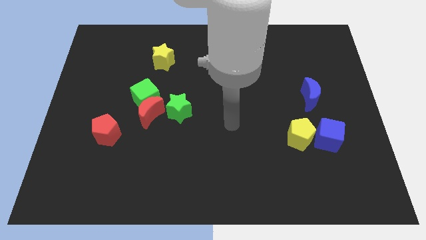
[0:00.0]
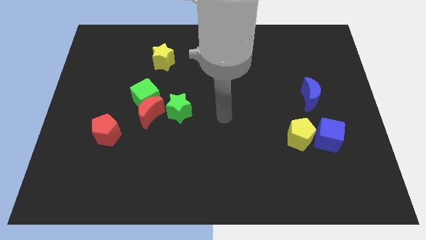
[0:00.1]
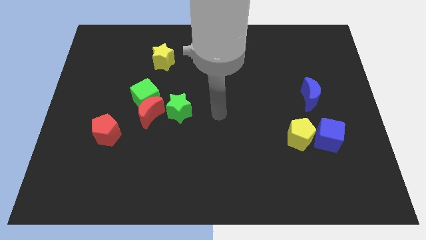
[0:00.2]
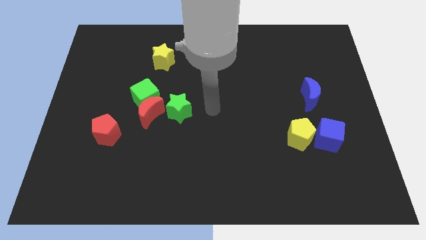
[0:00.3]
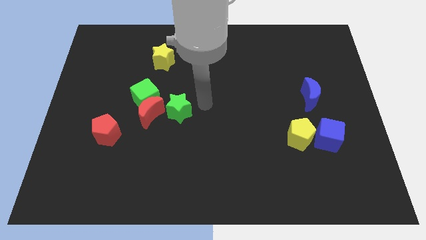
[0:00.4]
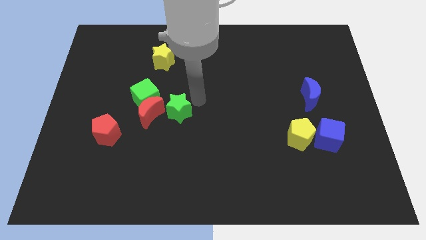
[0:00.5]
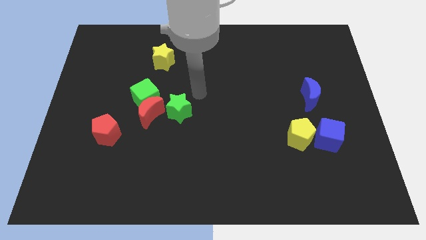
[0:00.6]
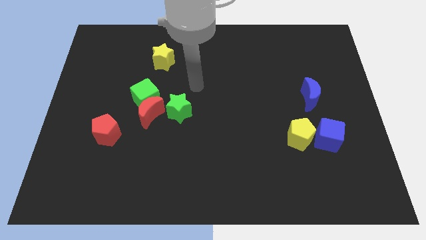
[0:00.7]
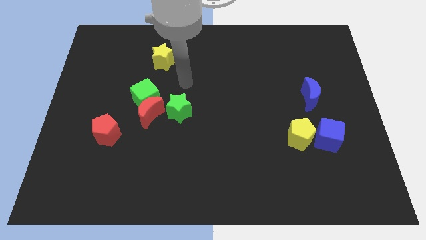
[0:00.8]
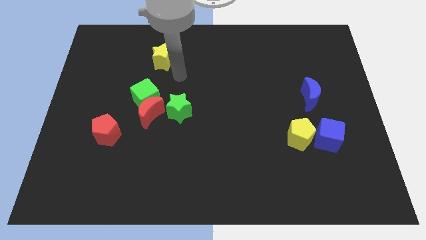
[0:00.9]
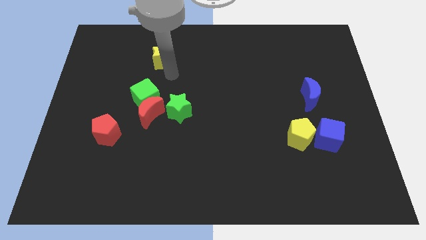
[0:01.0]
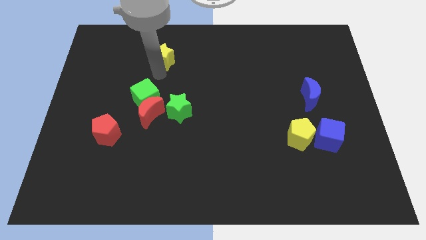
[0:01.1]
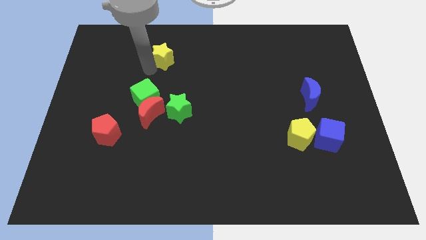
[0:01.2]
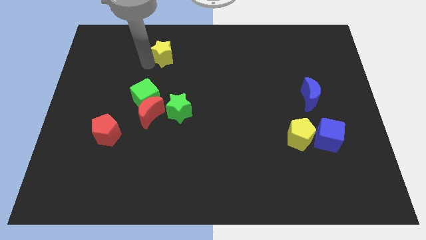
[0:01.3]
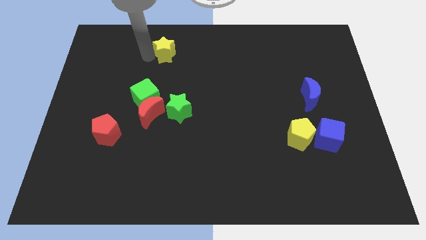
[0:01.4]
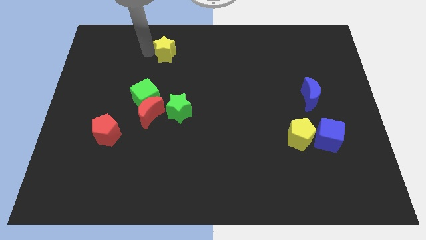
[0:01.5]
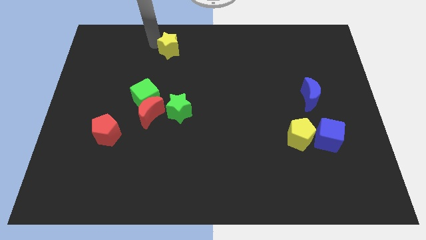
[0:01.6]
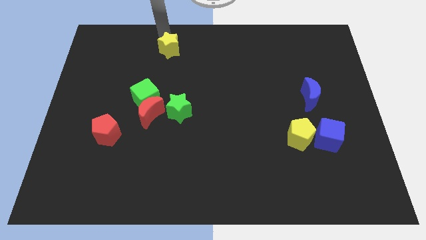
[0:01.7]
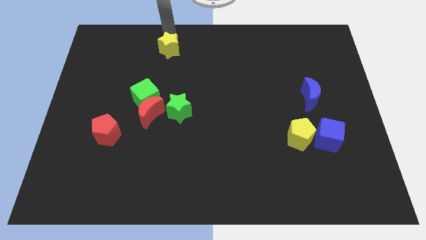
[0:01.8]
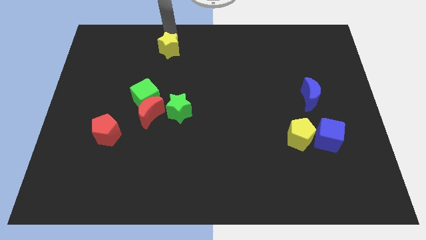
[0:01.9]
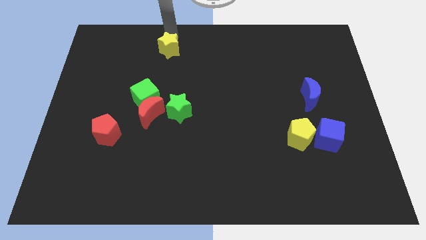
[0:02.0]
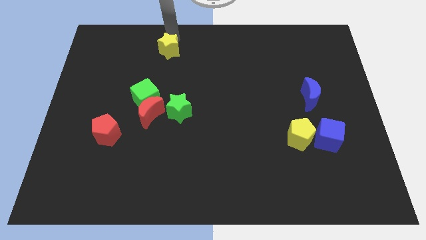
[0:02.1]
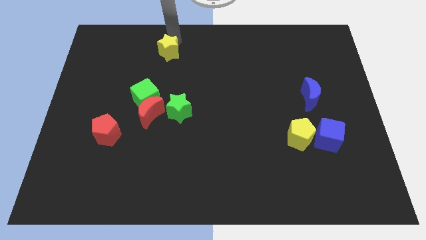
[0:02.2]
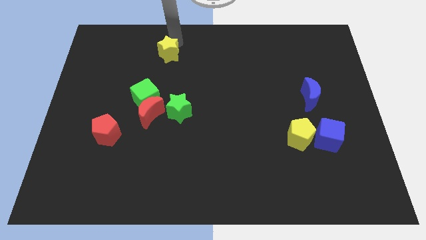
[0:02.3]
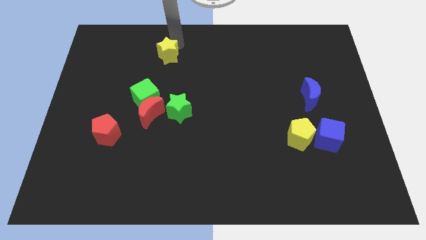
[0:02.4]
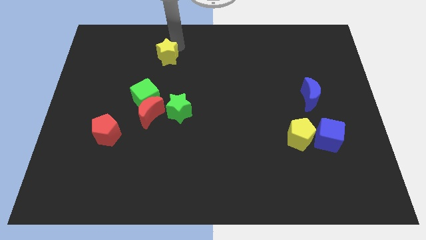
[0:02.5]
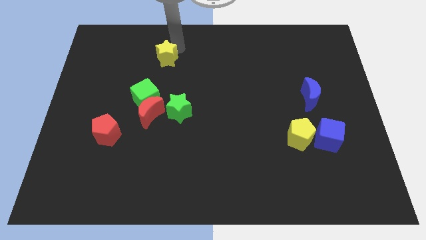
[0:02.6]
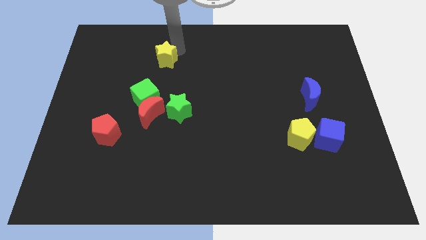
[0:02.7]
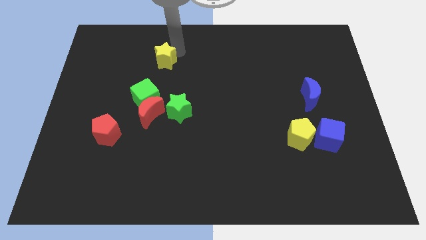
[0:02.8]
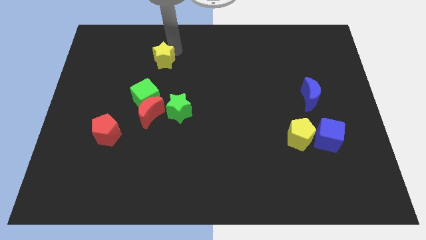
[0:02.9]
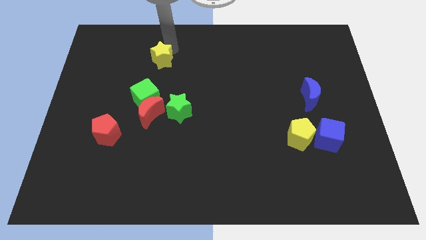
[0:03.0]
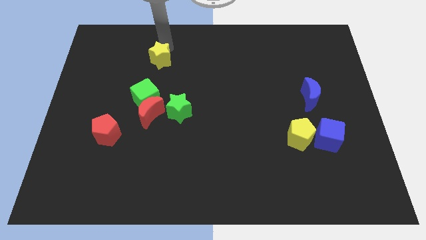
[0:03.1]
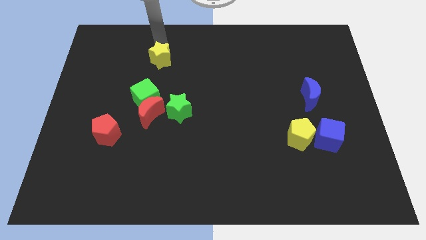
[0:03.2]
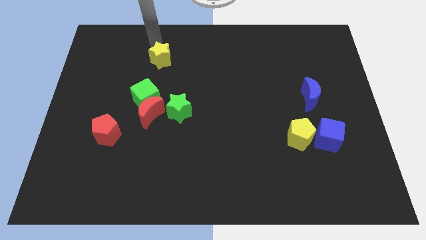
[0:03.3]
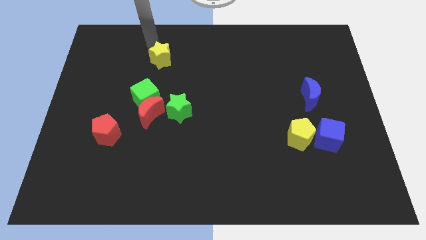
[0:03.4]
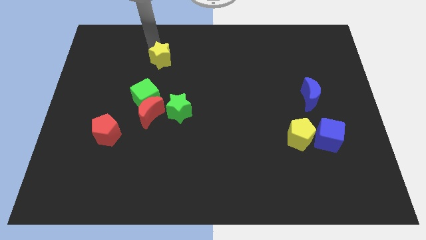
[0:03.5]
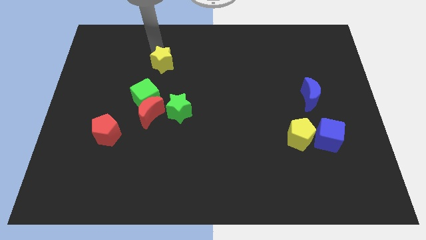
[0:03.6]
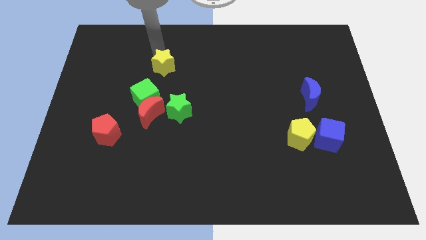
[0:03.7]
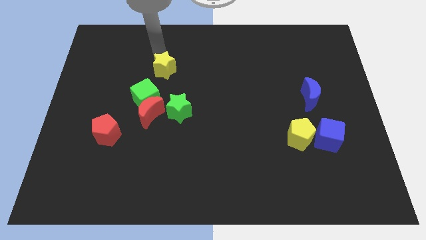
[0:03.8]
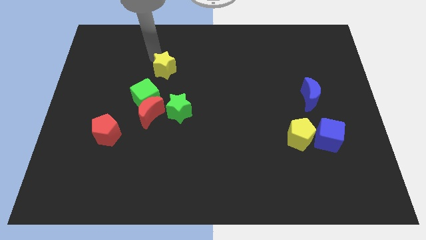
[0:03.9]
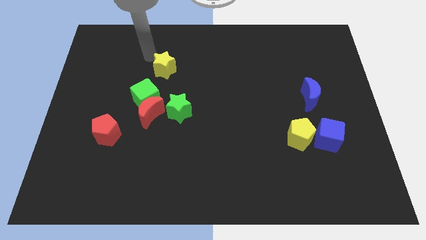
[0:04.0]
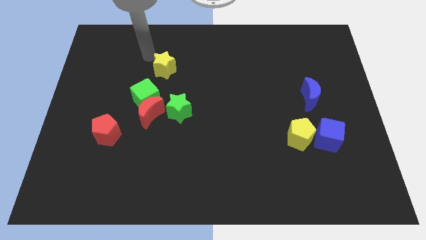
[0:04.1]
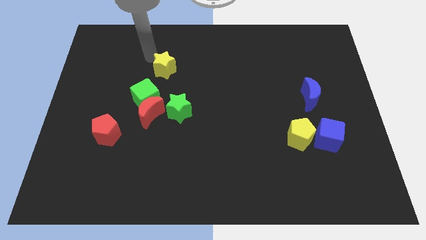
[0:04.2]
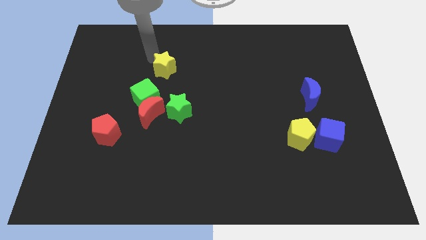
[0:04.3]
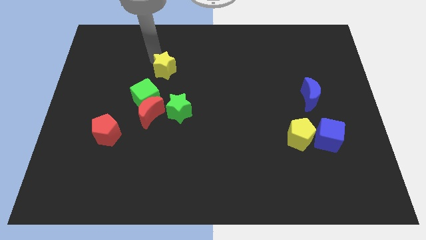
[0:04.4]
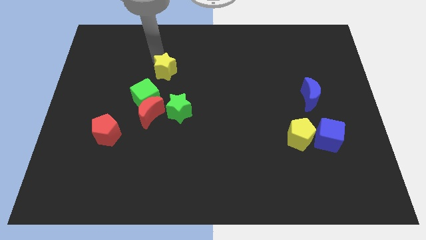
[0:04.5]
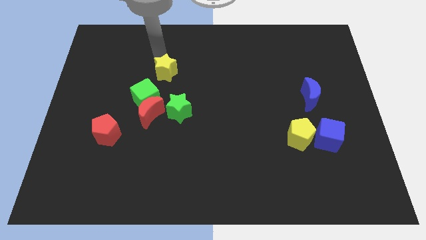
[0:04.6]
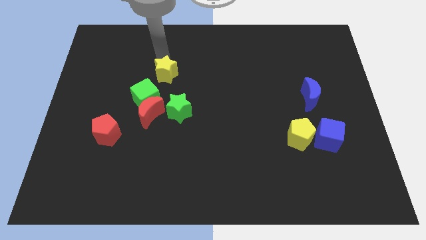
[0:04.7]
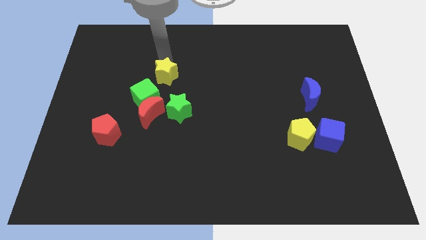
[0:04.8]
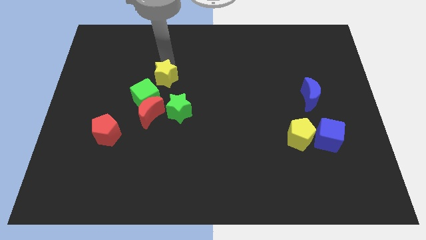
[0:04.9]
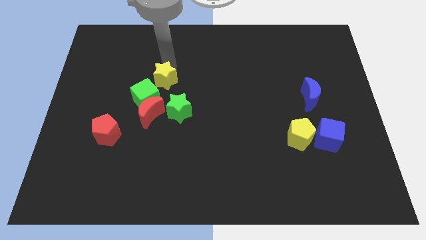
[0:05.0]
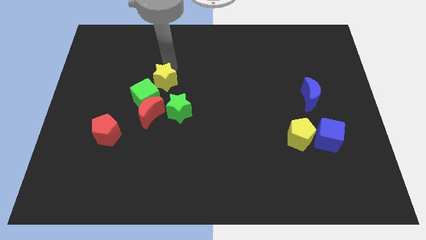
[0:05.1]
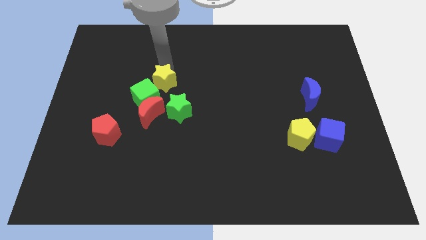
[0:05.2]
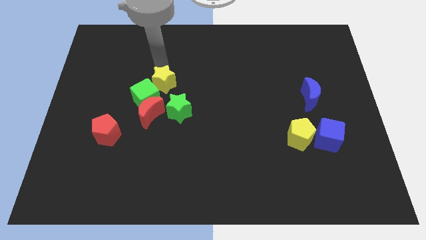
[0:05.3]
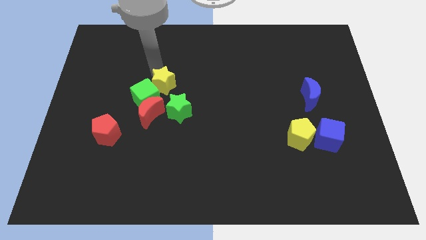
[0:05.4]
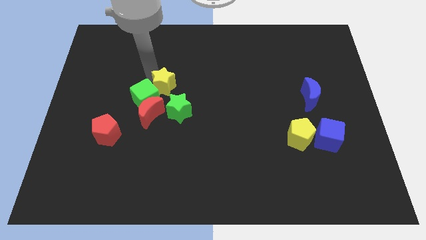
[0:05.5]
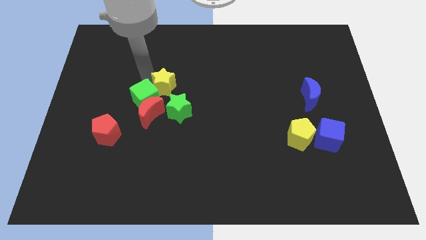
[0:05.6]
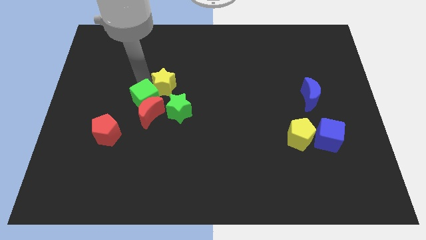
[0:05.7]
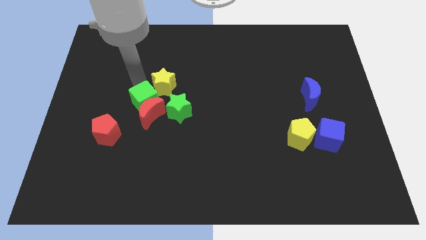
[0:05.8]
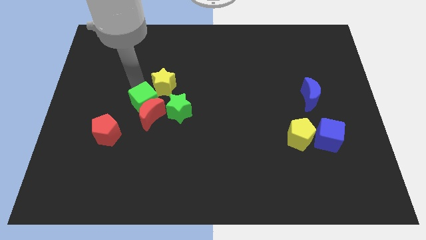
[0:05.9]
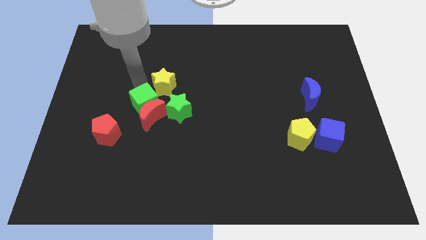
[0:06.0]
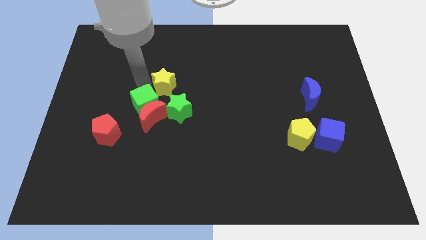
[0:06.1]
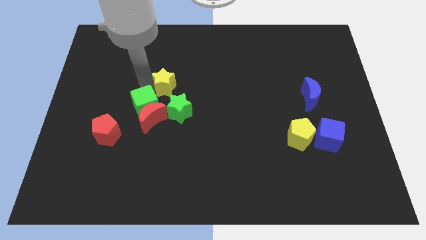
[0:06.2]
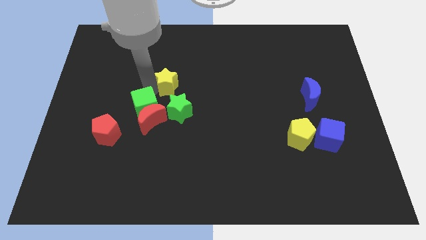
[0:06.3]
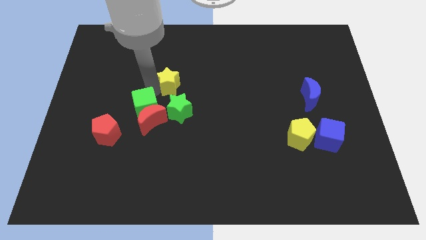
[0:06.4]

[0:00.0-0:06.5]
slightly push the yellow star down and then to the right

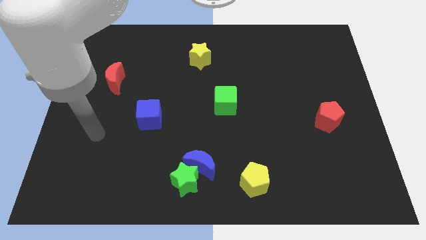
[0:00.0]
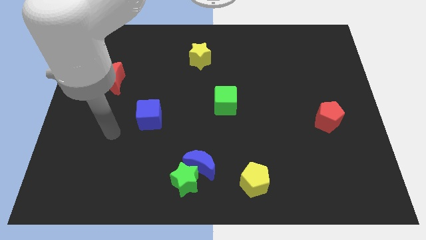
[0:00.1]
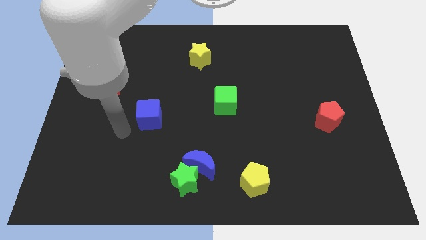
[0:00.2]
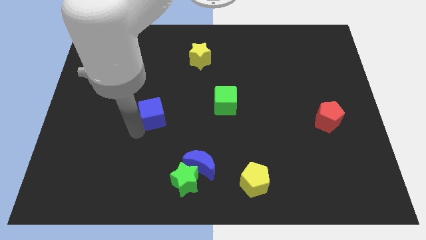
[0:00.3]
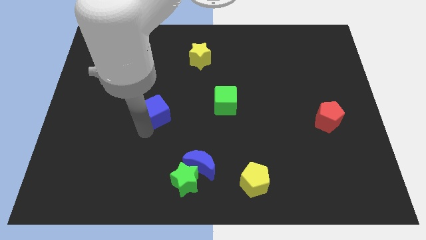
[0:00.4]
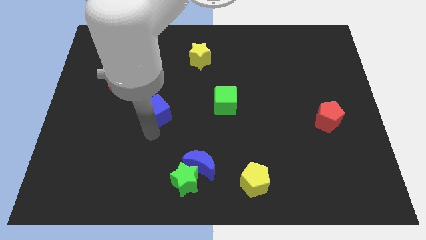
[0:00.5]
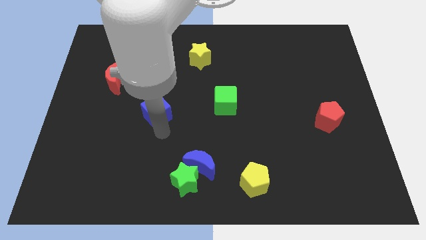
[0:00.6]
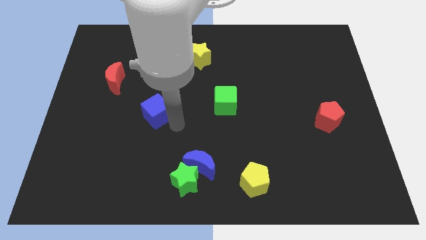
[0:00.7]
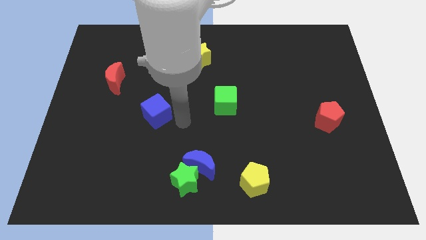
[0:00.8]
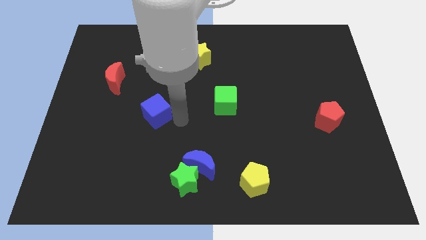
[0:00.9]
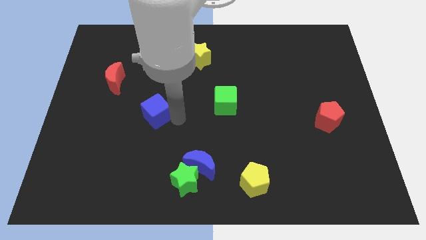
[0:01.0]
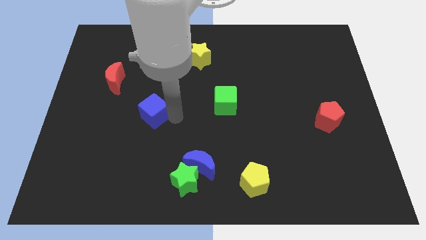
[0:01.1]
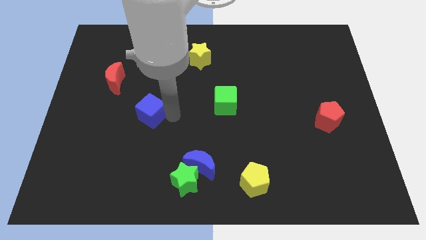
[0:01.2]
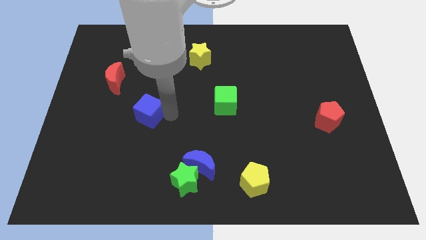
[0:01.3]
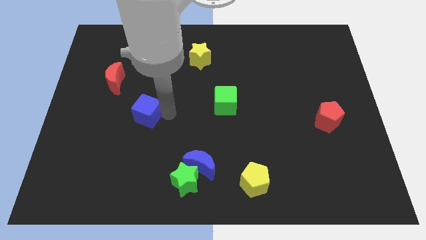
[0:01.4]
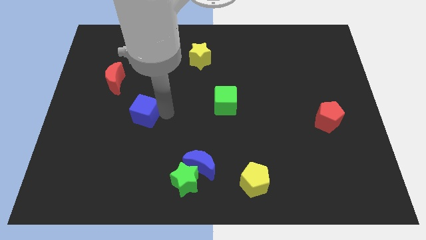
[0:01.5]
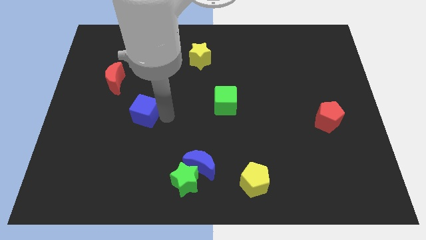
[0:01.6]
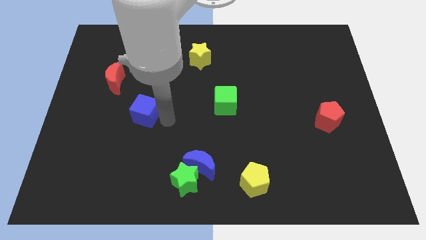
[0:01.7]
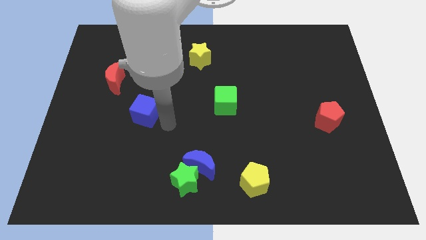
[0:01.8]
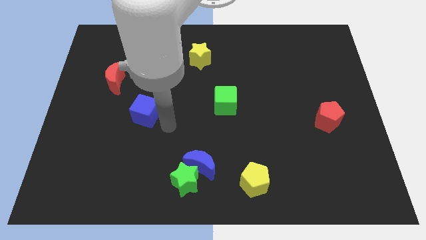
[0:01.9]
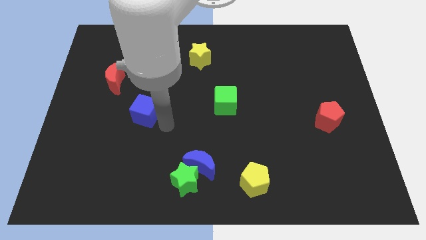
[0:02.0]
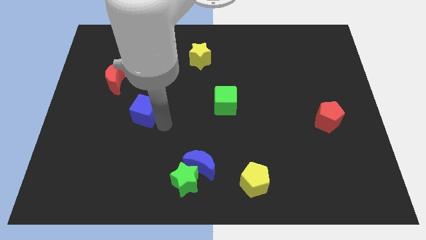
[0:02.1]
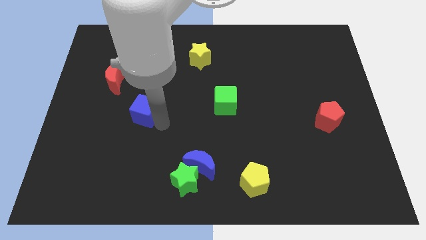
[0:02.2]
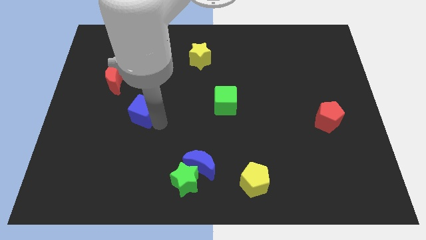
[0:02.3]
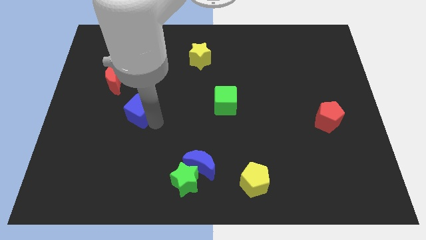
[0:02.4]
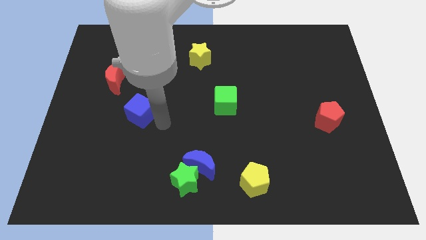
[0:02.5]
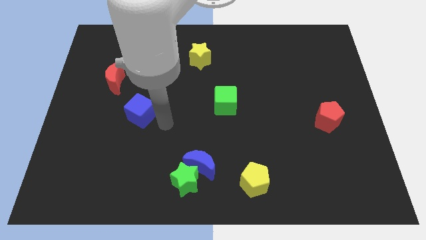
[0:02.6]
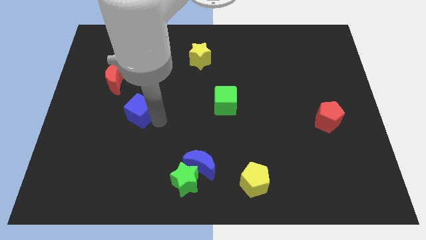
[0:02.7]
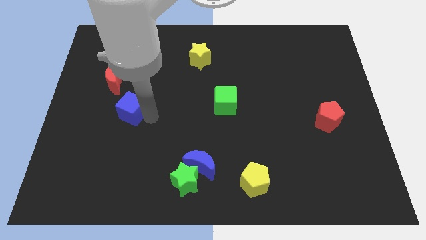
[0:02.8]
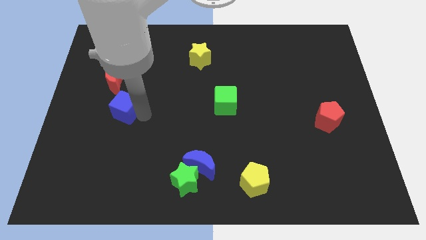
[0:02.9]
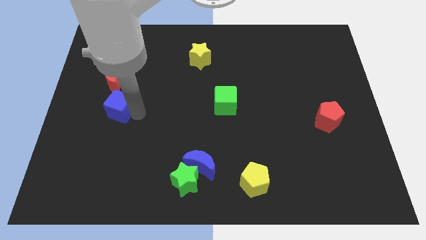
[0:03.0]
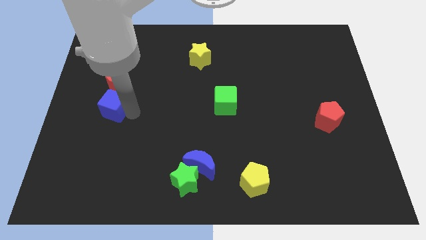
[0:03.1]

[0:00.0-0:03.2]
move the blue cube up and to the left a bit
